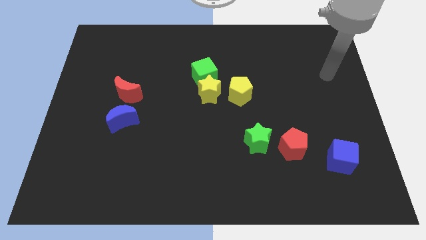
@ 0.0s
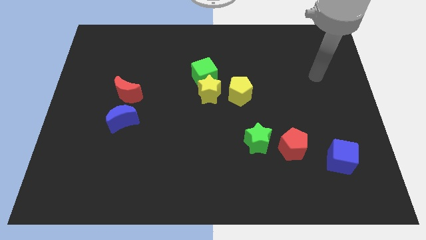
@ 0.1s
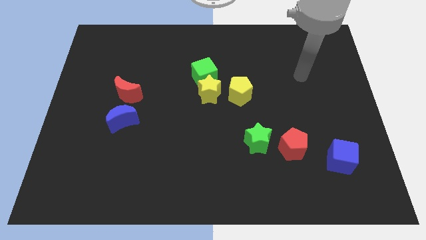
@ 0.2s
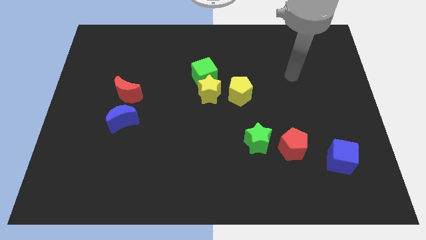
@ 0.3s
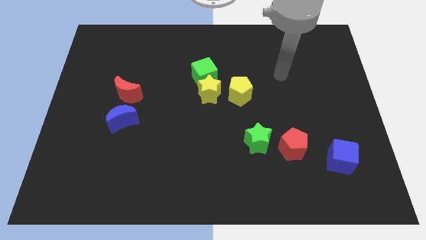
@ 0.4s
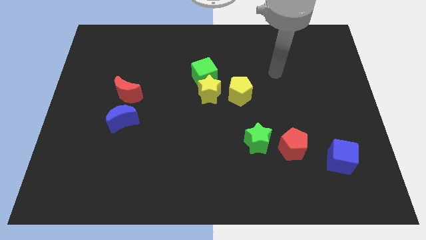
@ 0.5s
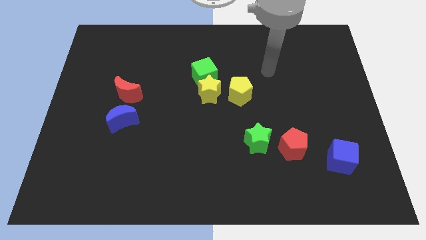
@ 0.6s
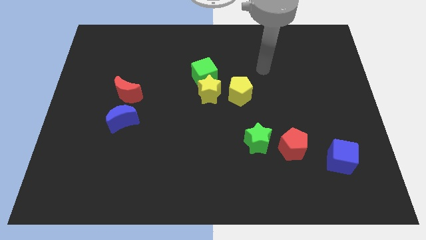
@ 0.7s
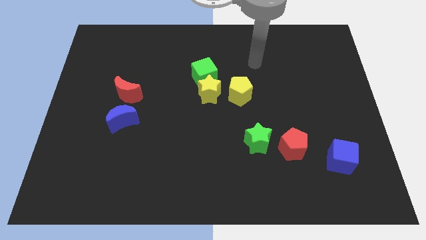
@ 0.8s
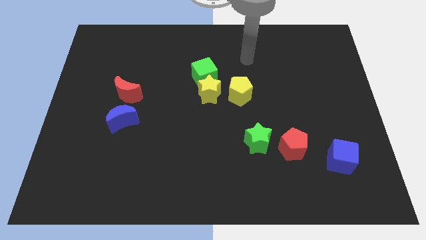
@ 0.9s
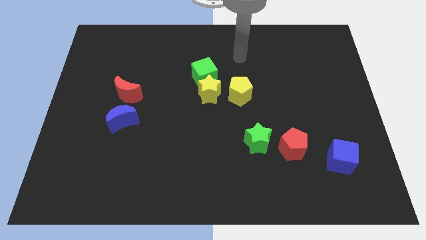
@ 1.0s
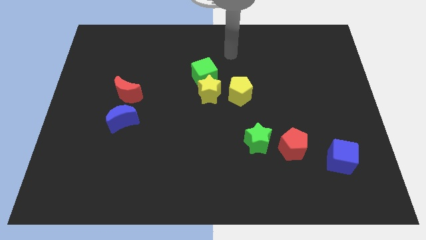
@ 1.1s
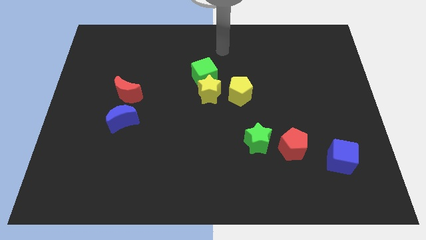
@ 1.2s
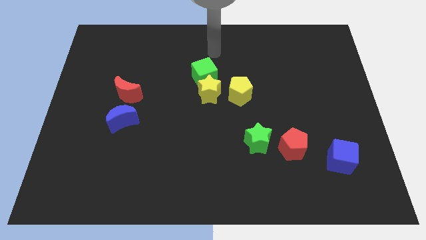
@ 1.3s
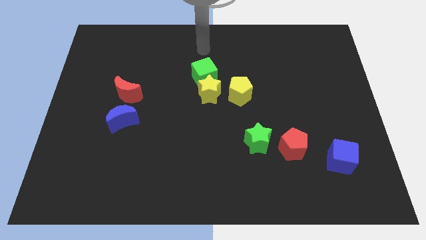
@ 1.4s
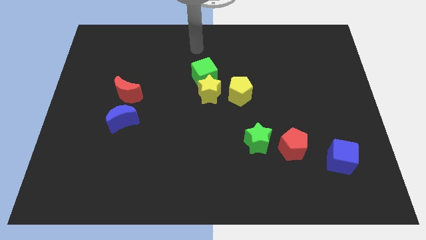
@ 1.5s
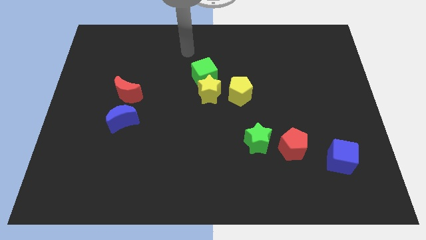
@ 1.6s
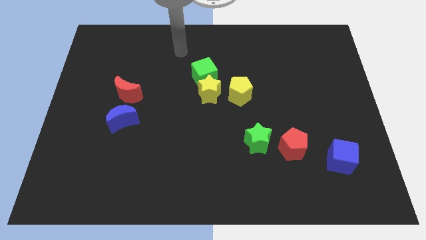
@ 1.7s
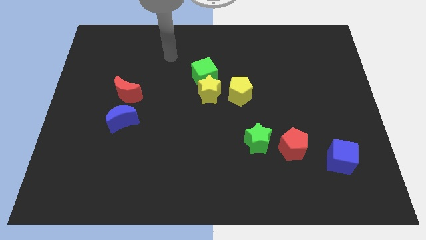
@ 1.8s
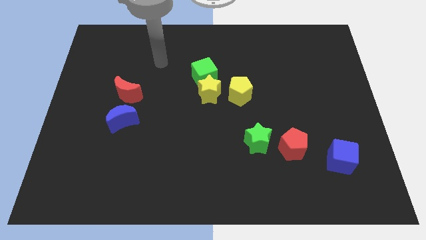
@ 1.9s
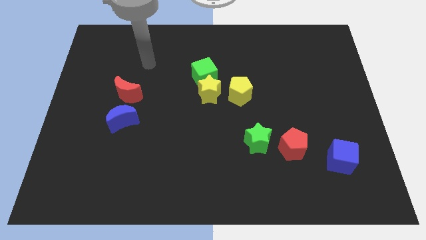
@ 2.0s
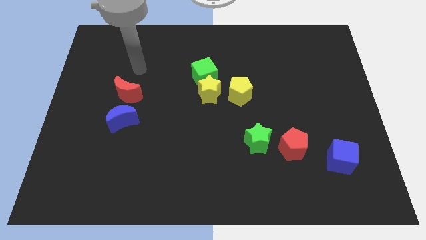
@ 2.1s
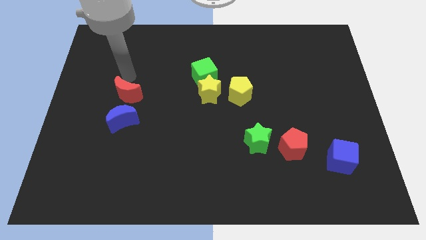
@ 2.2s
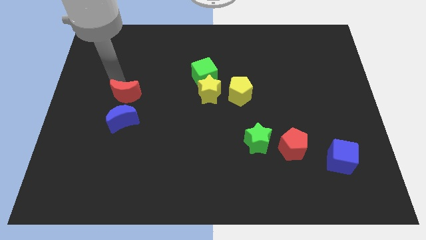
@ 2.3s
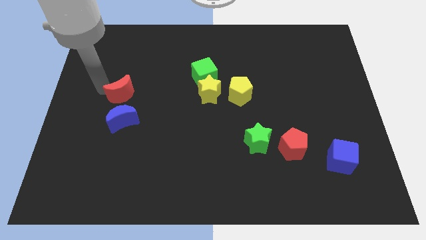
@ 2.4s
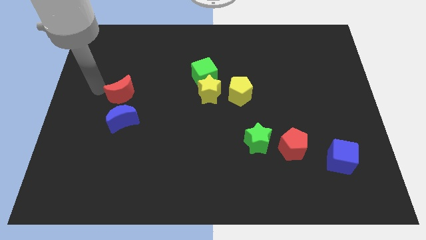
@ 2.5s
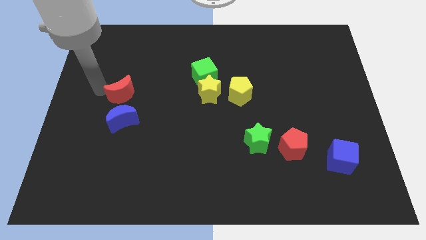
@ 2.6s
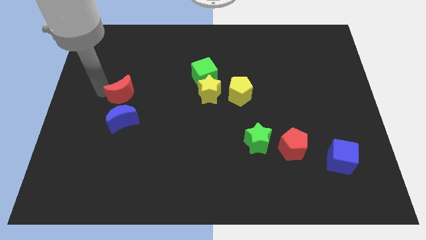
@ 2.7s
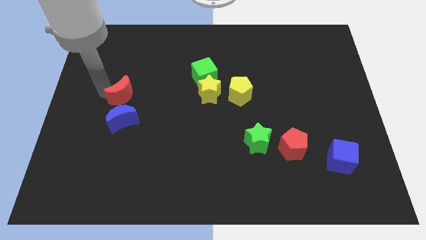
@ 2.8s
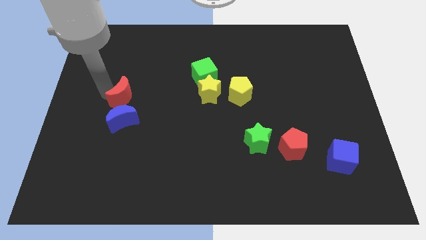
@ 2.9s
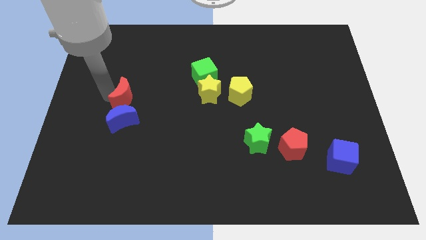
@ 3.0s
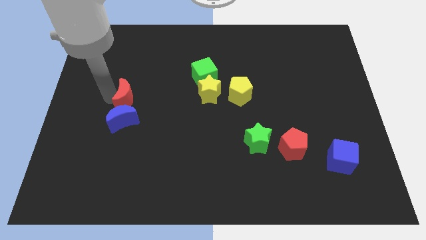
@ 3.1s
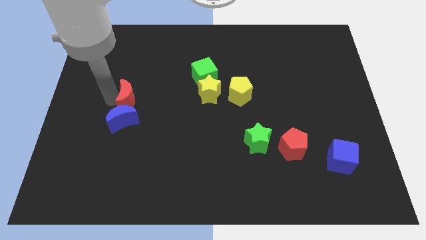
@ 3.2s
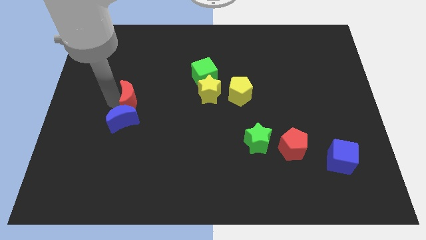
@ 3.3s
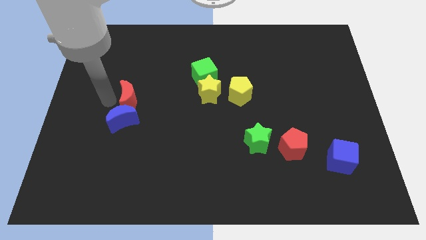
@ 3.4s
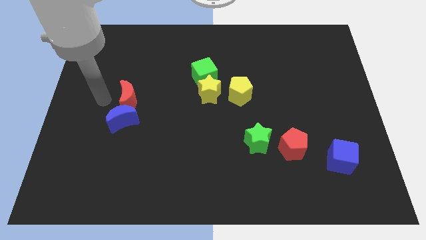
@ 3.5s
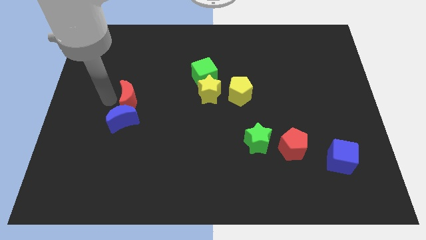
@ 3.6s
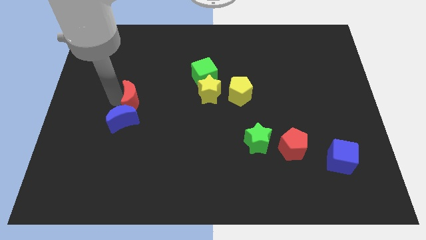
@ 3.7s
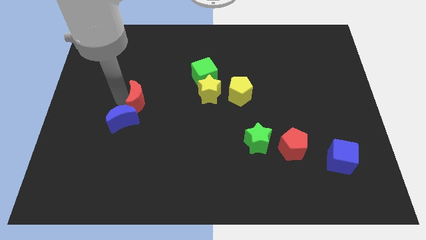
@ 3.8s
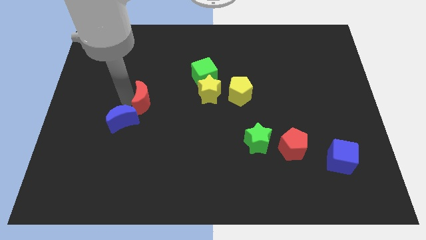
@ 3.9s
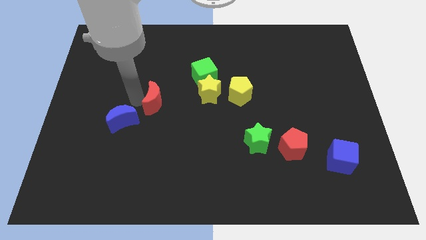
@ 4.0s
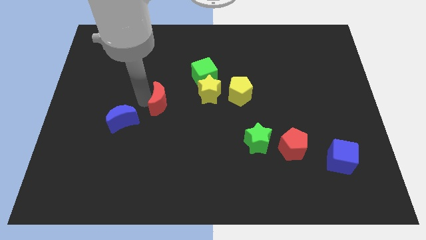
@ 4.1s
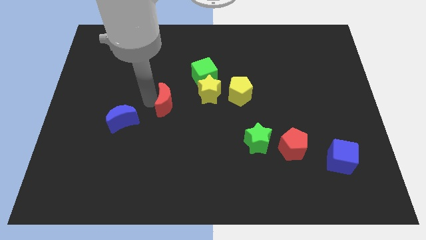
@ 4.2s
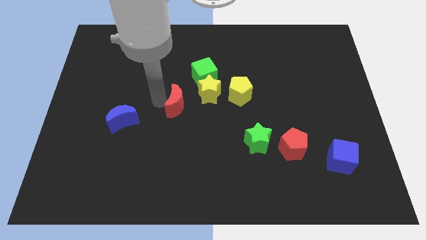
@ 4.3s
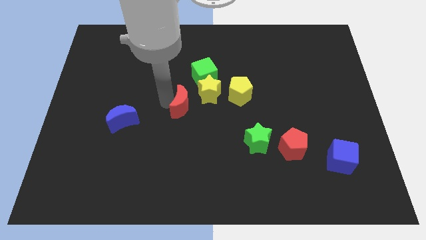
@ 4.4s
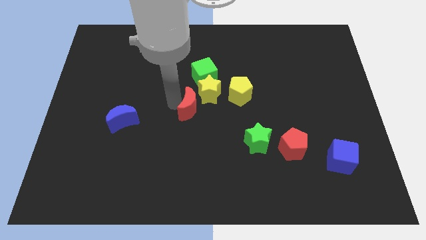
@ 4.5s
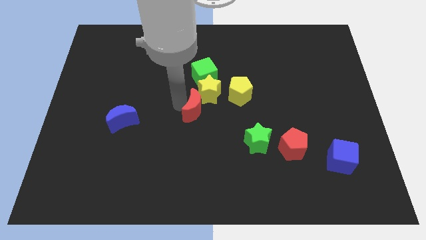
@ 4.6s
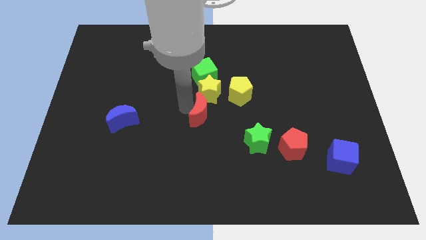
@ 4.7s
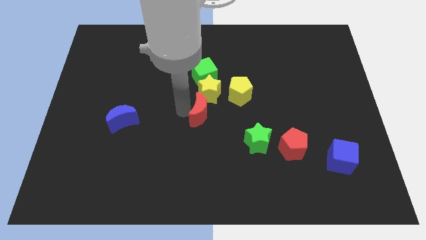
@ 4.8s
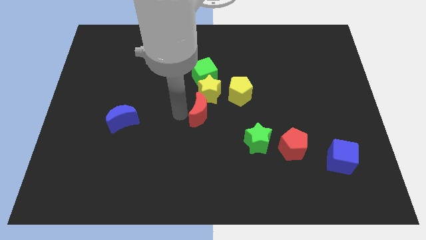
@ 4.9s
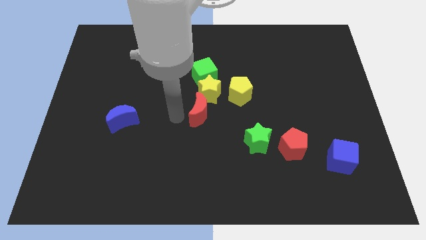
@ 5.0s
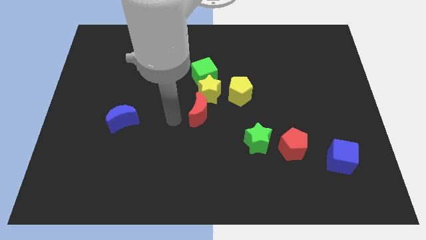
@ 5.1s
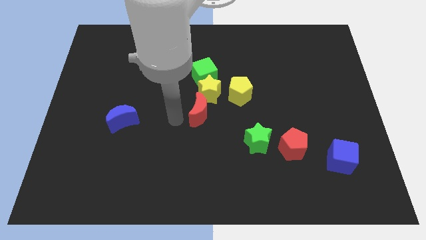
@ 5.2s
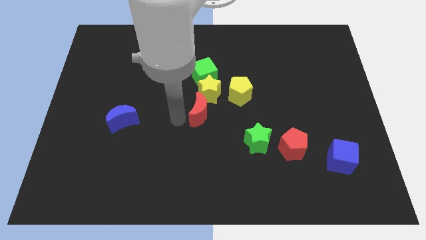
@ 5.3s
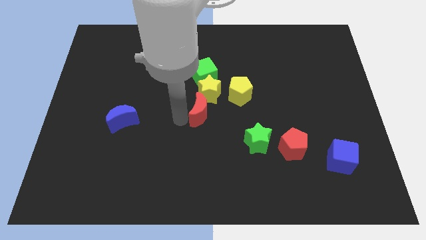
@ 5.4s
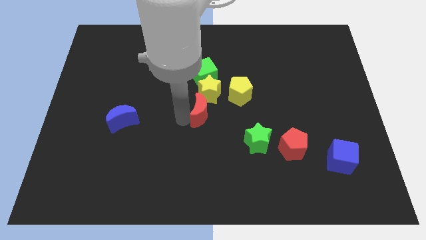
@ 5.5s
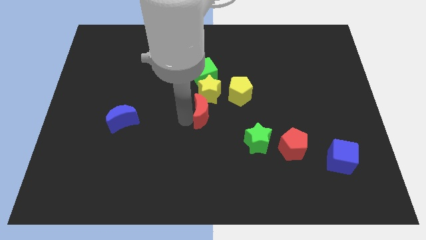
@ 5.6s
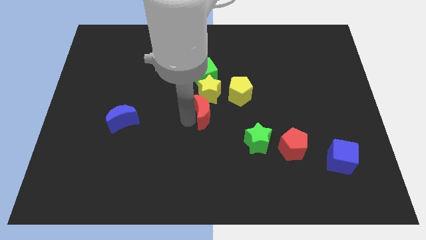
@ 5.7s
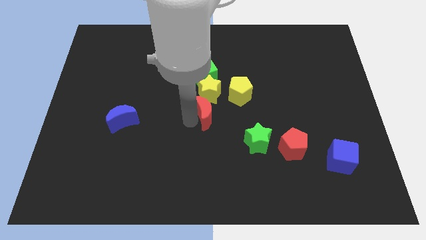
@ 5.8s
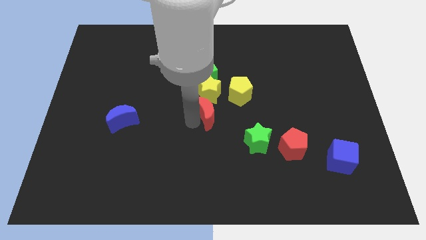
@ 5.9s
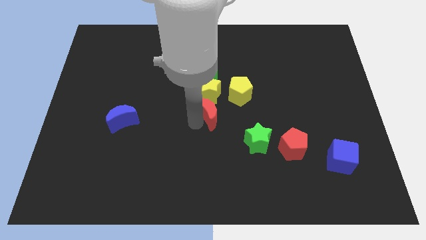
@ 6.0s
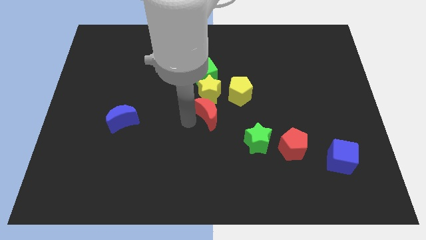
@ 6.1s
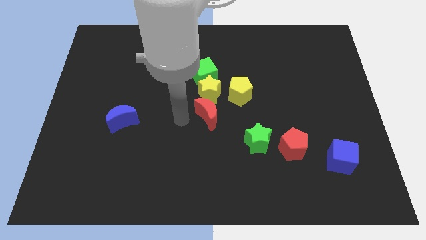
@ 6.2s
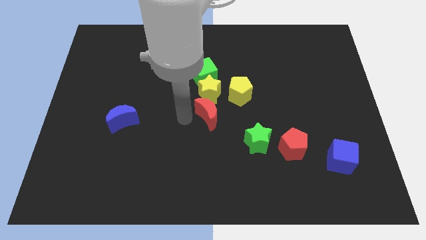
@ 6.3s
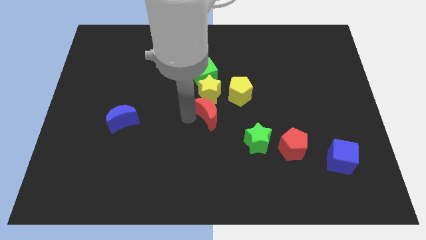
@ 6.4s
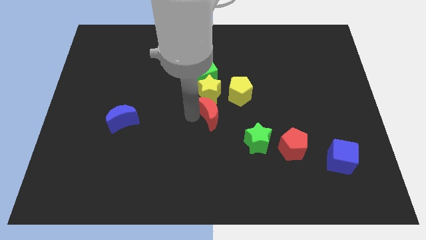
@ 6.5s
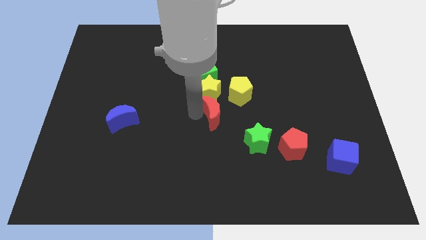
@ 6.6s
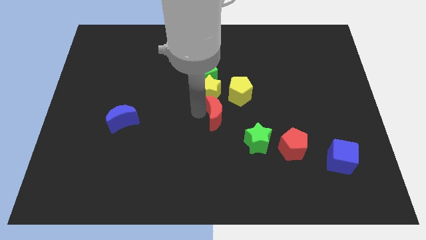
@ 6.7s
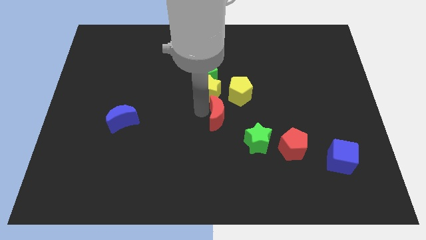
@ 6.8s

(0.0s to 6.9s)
slide the red moon to the right

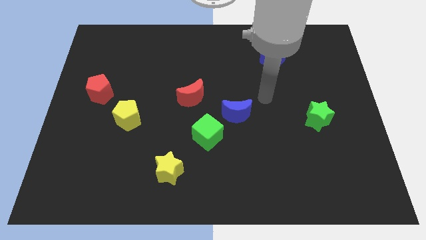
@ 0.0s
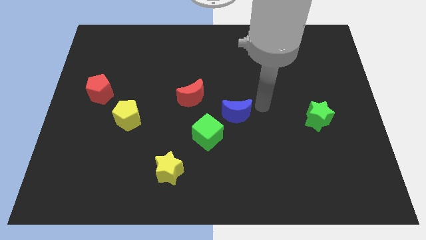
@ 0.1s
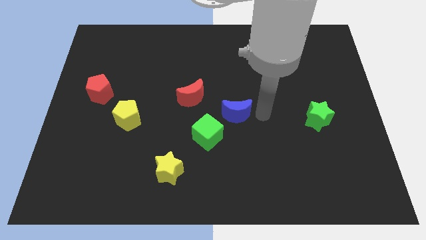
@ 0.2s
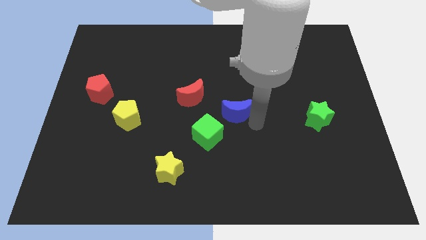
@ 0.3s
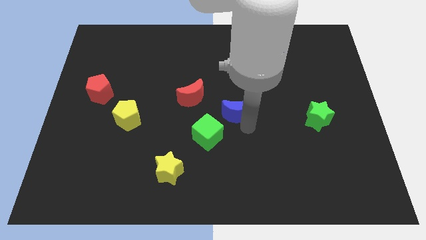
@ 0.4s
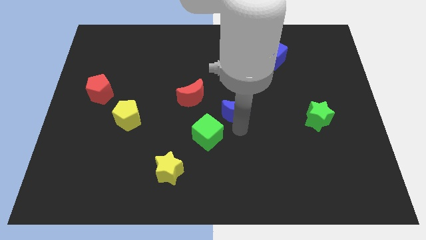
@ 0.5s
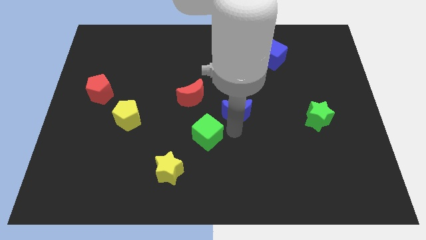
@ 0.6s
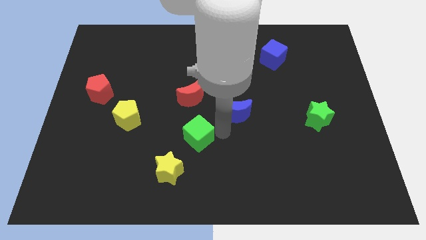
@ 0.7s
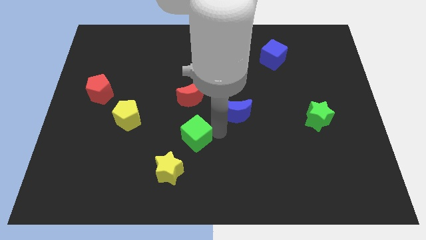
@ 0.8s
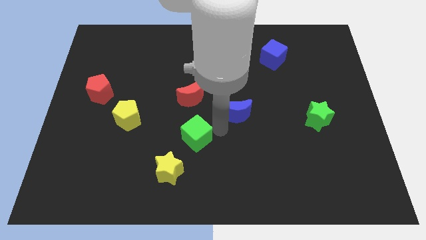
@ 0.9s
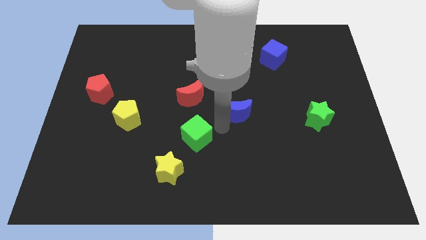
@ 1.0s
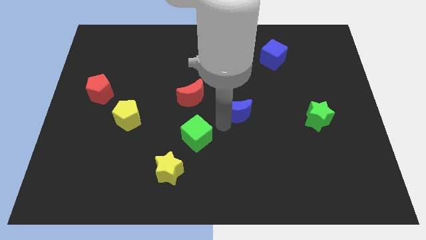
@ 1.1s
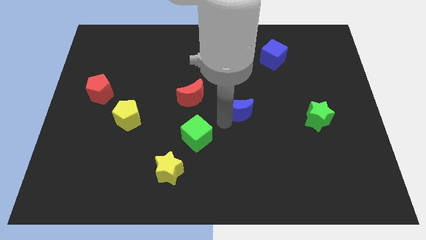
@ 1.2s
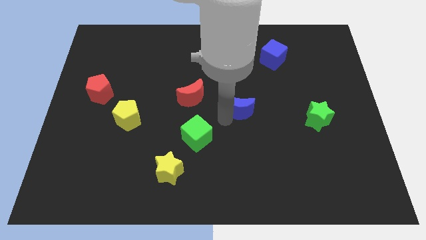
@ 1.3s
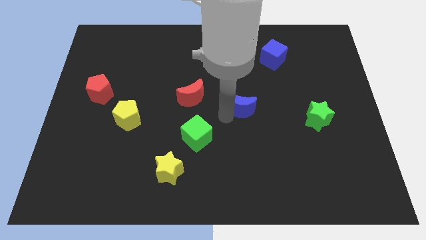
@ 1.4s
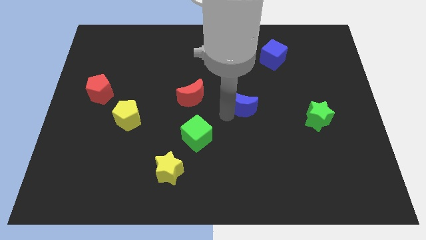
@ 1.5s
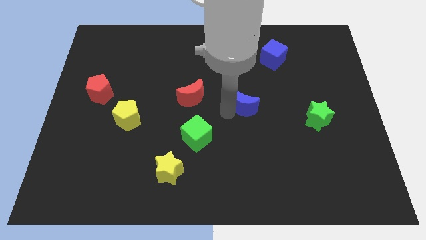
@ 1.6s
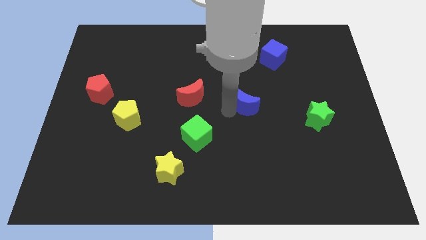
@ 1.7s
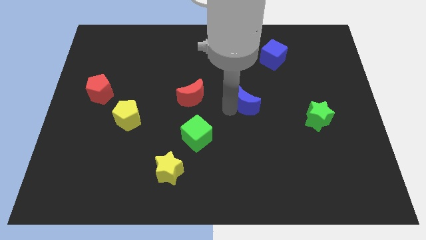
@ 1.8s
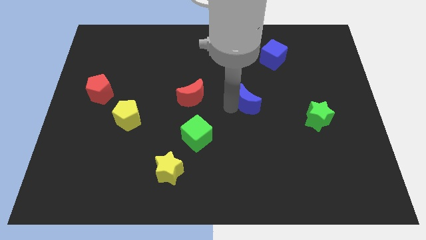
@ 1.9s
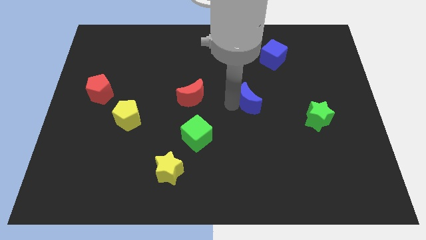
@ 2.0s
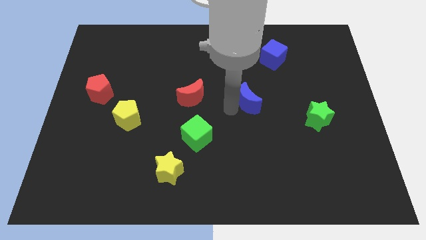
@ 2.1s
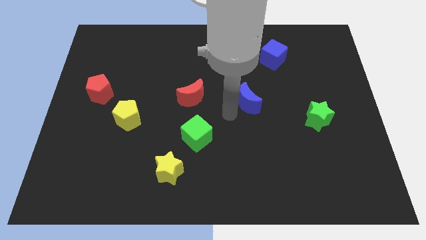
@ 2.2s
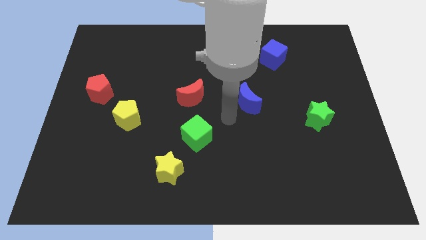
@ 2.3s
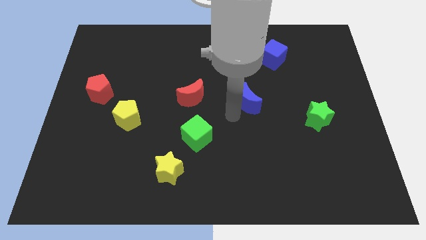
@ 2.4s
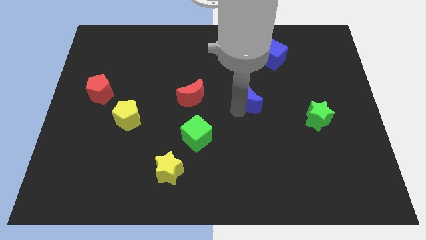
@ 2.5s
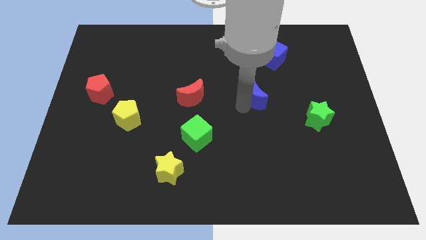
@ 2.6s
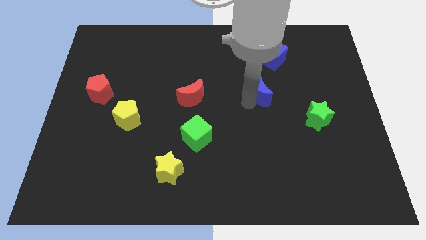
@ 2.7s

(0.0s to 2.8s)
slightly slide the blue moon up and to the right
